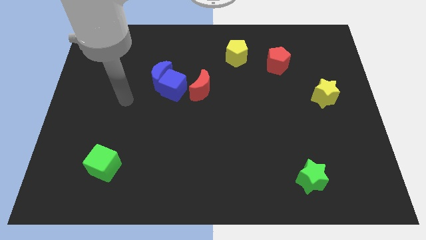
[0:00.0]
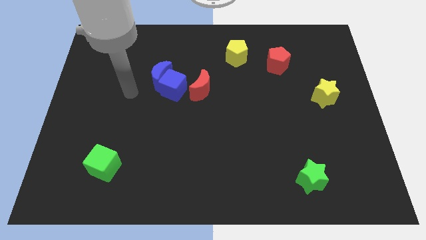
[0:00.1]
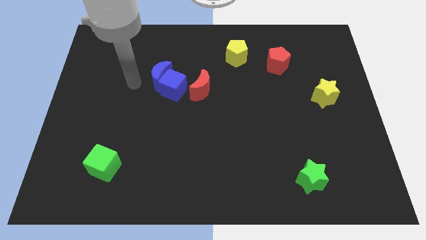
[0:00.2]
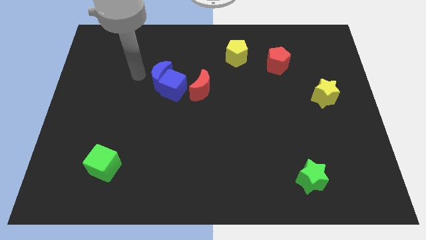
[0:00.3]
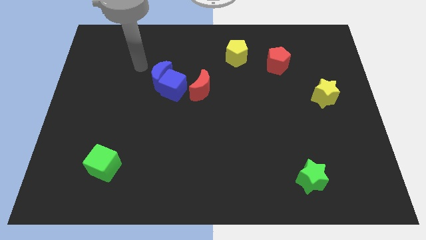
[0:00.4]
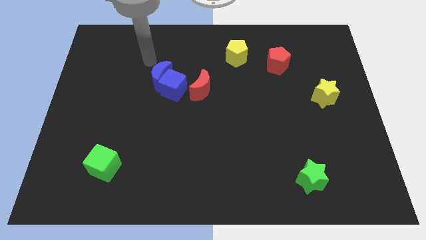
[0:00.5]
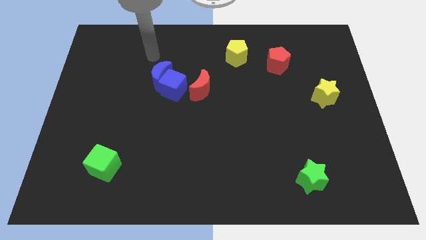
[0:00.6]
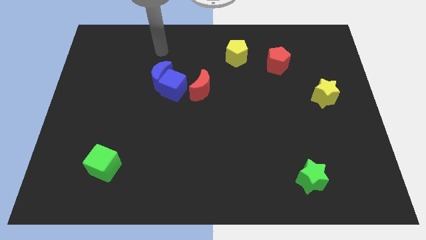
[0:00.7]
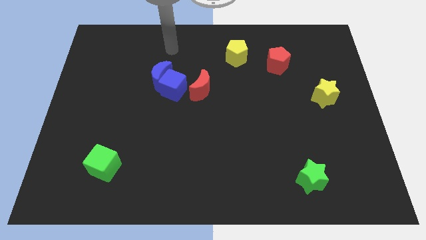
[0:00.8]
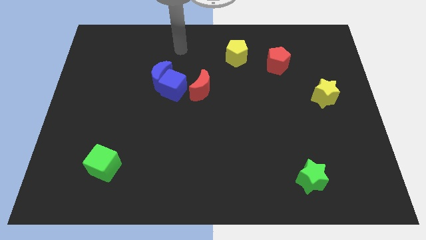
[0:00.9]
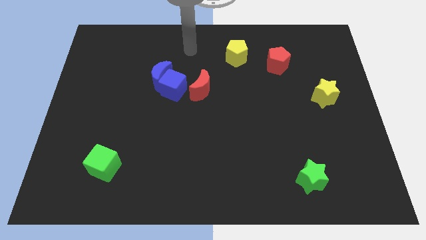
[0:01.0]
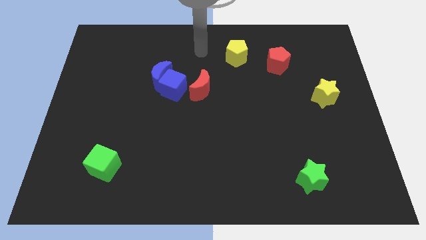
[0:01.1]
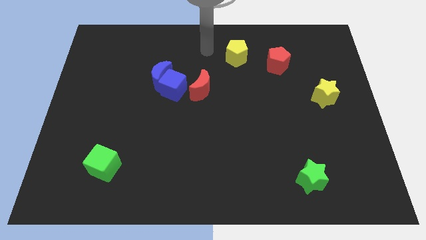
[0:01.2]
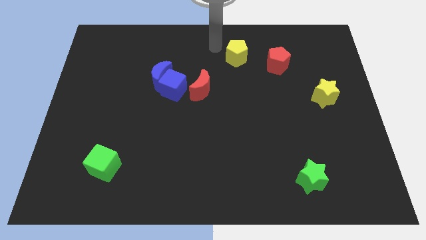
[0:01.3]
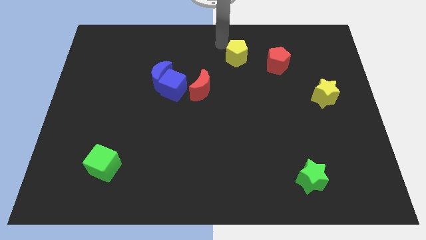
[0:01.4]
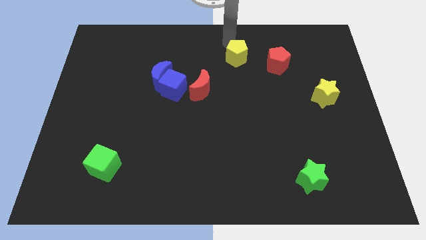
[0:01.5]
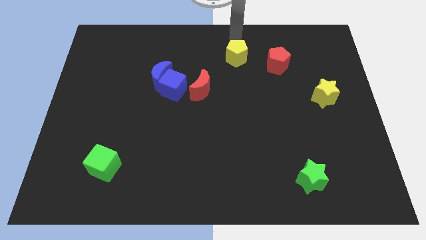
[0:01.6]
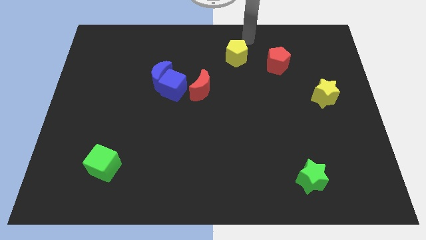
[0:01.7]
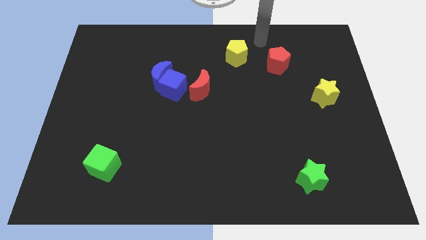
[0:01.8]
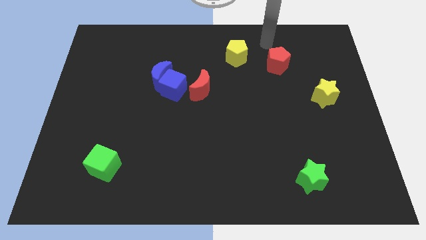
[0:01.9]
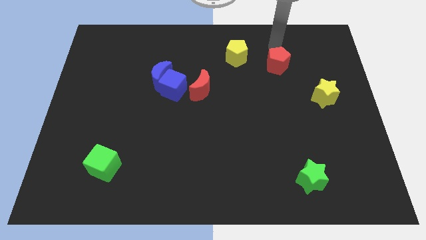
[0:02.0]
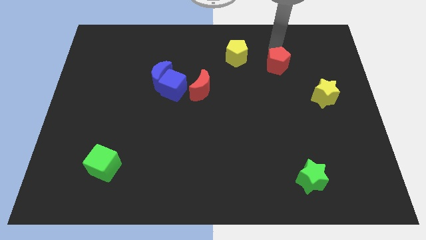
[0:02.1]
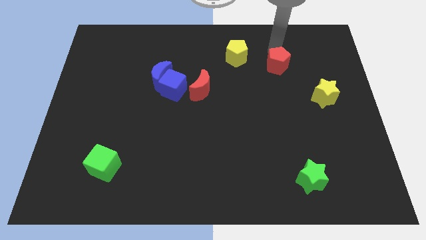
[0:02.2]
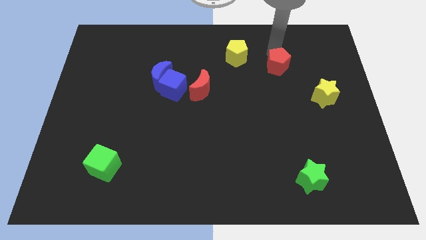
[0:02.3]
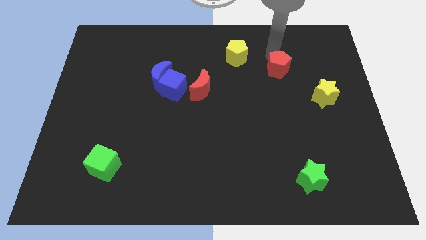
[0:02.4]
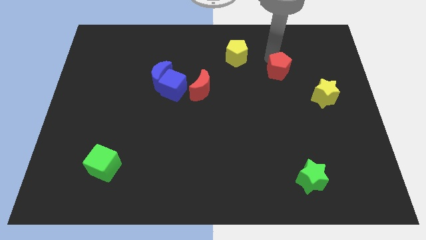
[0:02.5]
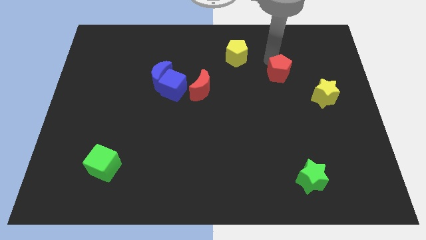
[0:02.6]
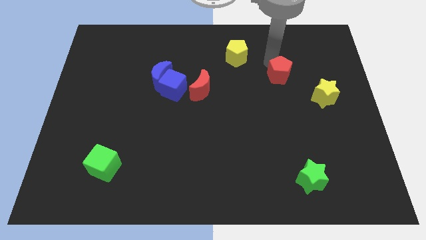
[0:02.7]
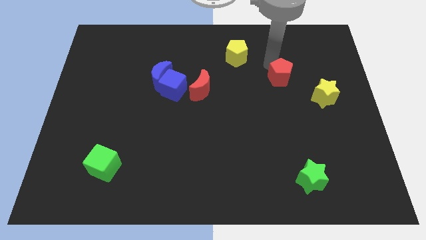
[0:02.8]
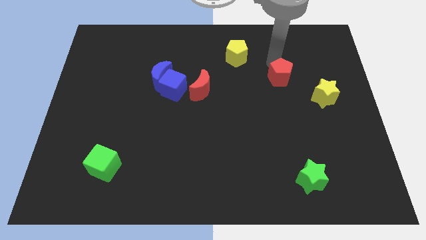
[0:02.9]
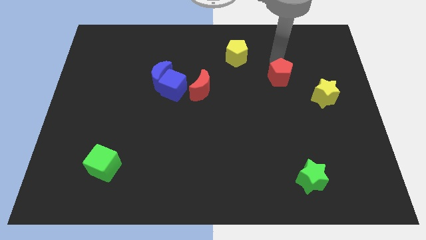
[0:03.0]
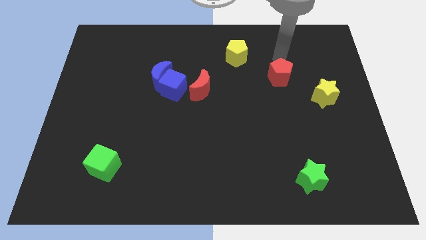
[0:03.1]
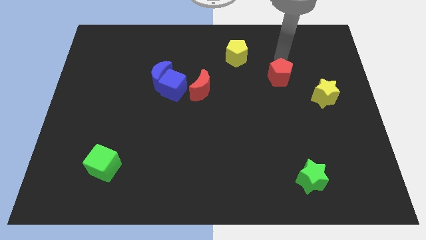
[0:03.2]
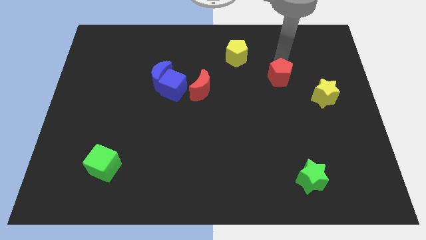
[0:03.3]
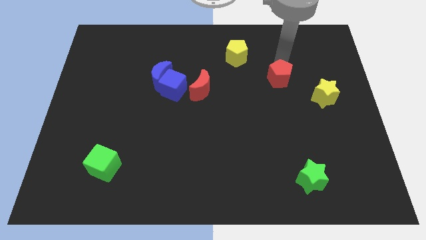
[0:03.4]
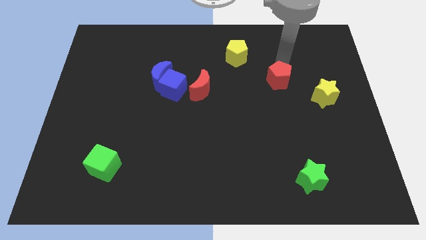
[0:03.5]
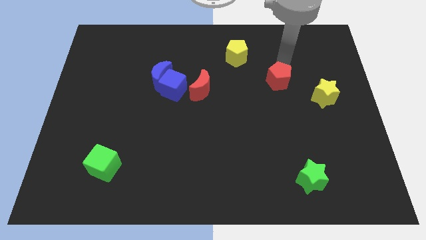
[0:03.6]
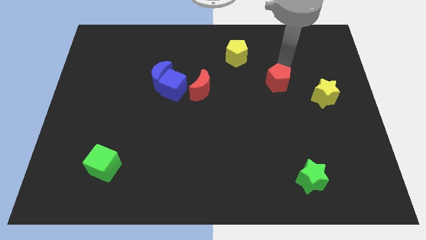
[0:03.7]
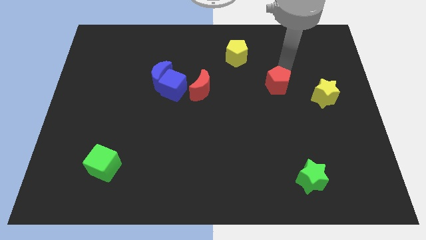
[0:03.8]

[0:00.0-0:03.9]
push the red pentagon somewhat downwards

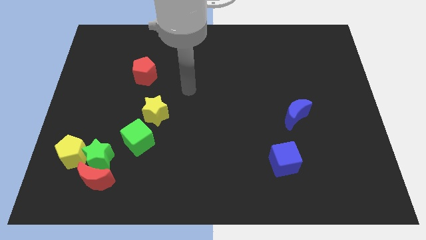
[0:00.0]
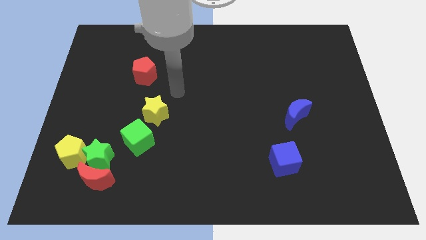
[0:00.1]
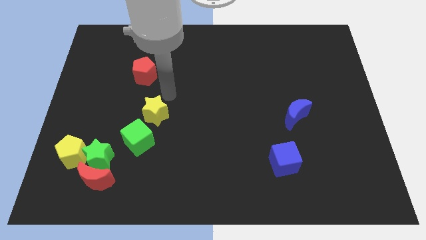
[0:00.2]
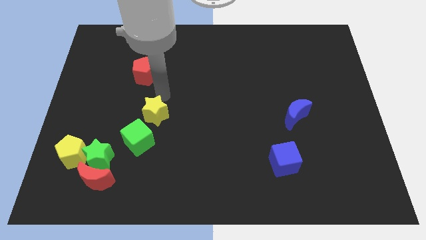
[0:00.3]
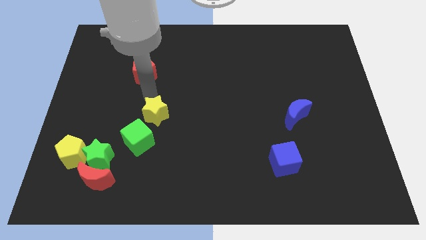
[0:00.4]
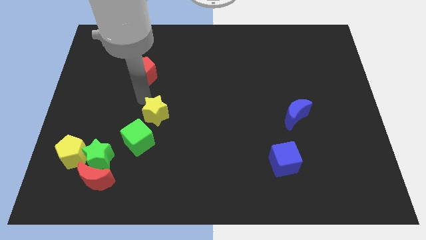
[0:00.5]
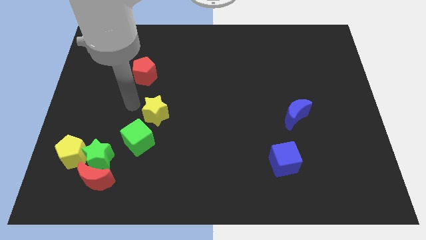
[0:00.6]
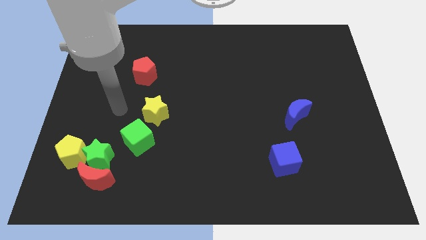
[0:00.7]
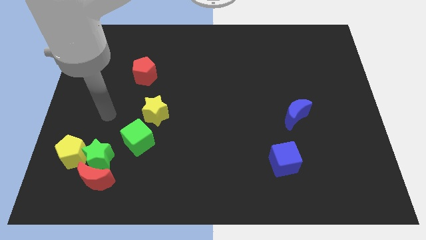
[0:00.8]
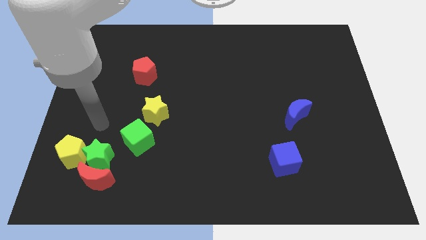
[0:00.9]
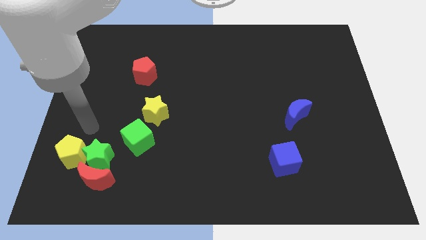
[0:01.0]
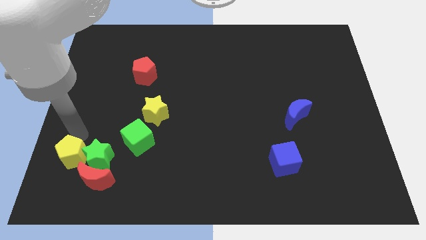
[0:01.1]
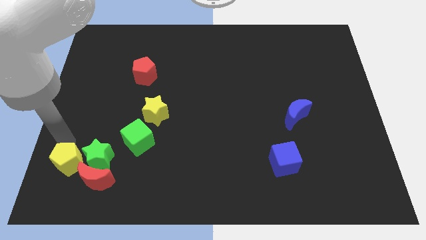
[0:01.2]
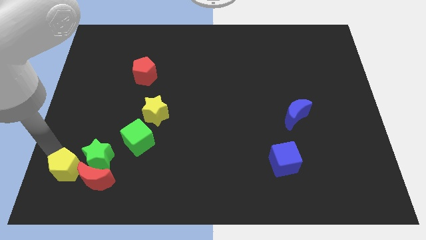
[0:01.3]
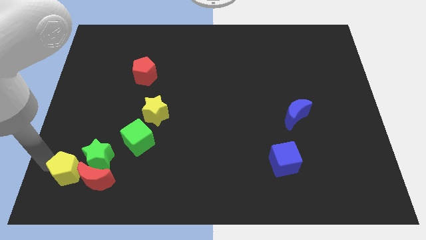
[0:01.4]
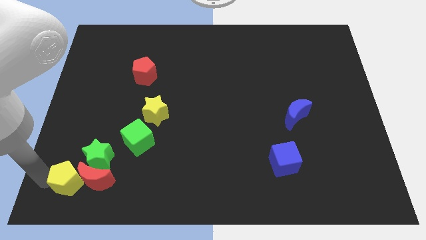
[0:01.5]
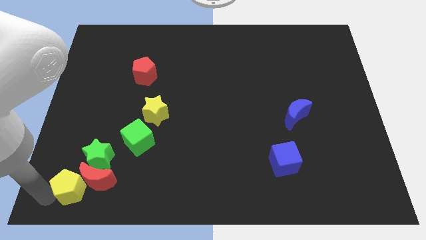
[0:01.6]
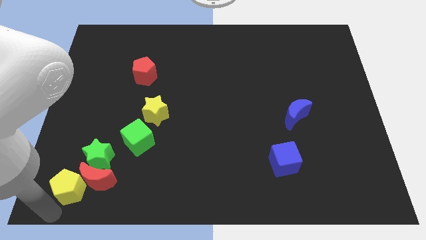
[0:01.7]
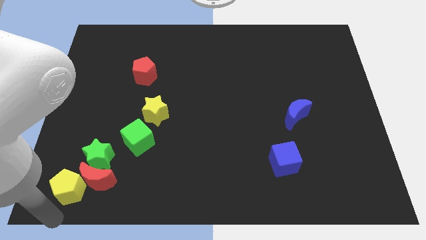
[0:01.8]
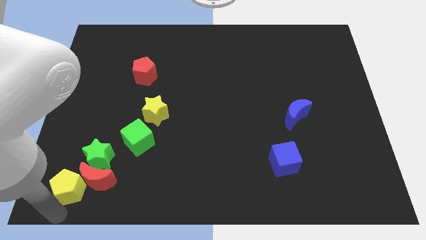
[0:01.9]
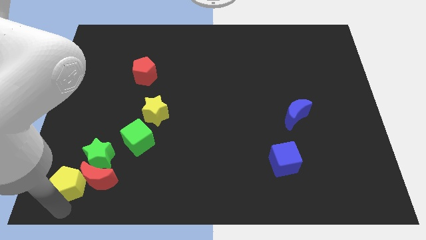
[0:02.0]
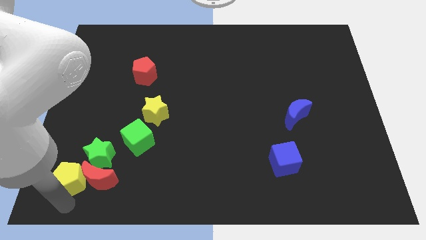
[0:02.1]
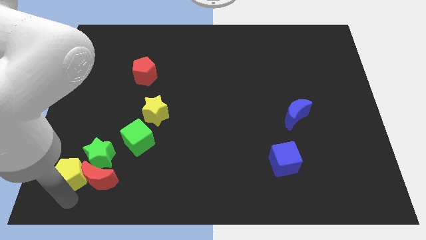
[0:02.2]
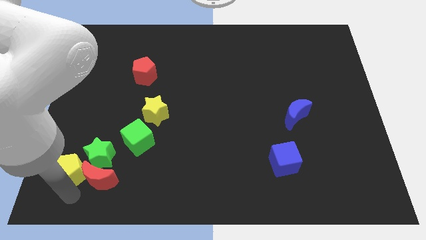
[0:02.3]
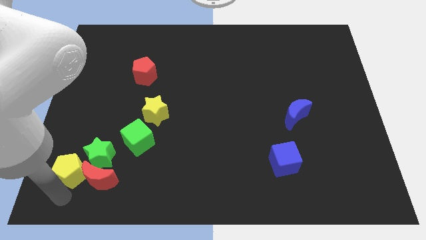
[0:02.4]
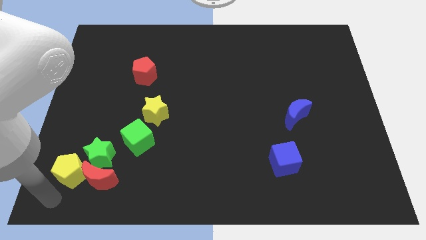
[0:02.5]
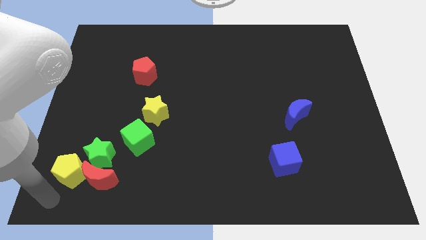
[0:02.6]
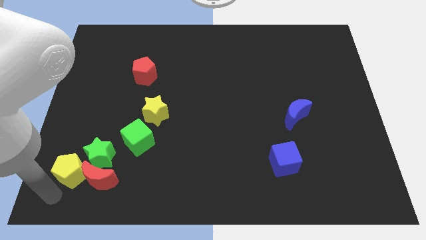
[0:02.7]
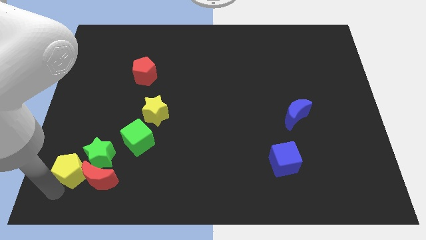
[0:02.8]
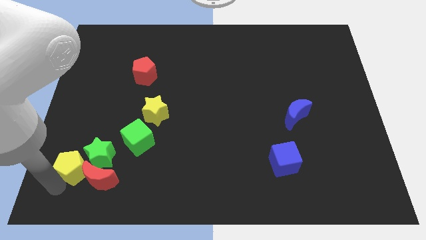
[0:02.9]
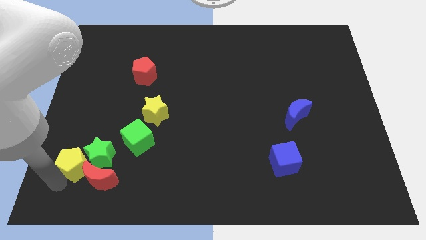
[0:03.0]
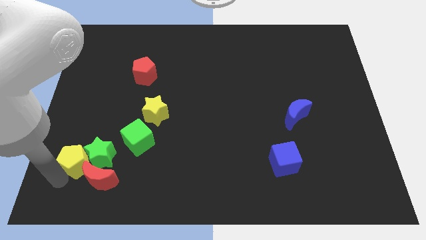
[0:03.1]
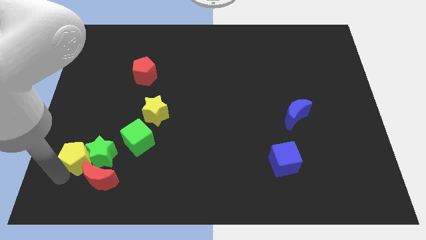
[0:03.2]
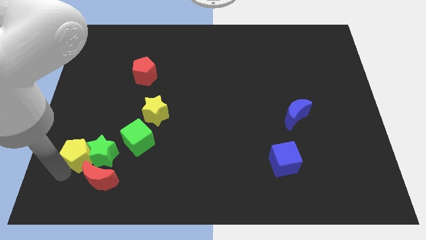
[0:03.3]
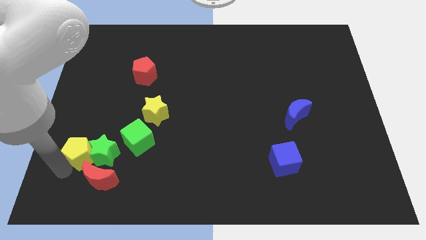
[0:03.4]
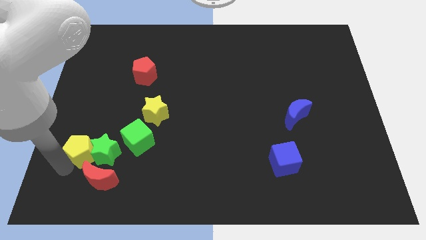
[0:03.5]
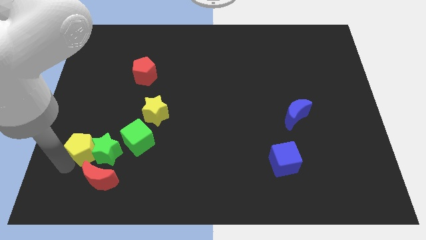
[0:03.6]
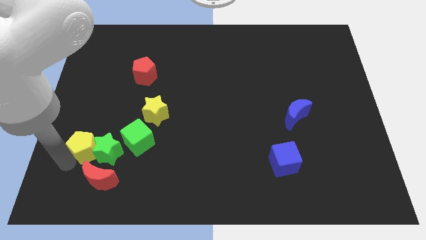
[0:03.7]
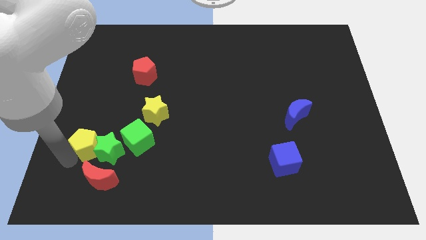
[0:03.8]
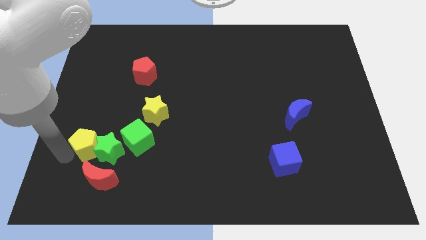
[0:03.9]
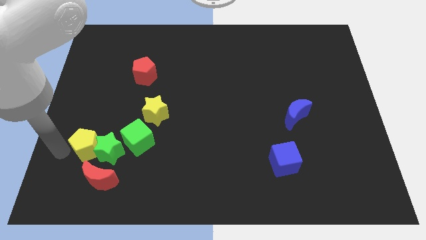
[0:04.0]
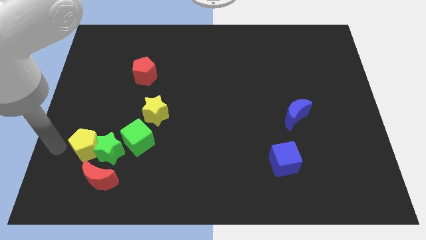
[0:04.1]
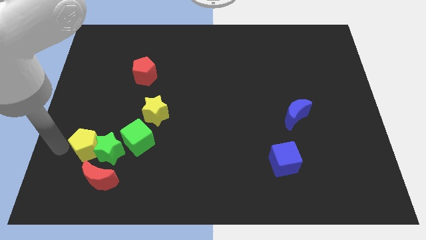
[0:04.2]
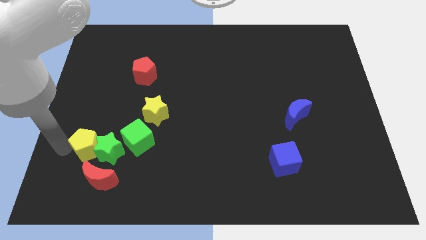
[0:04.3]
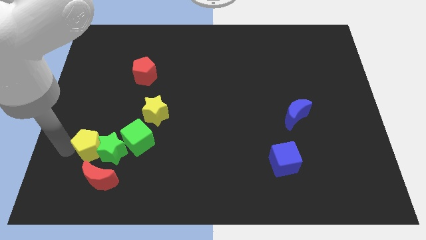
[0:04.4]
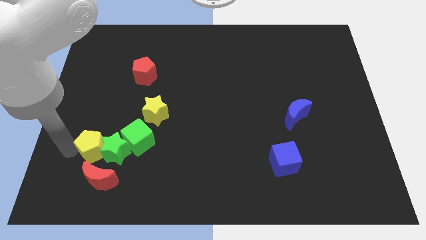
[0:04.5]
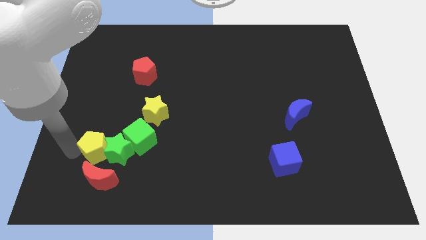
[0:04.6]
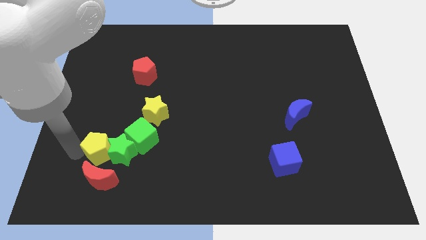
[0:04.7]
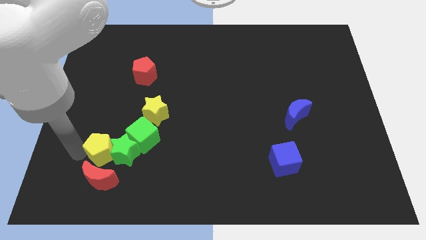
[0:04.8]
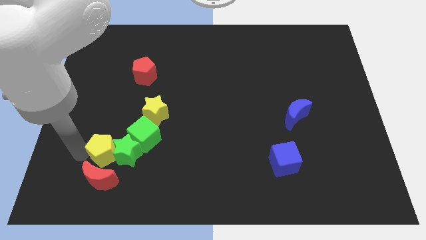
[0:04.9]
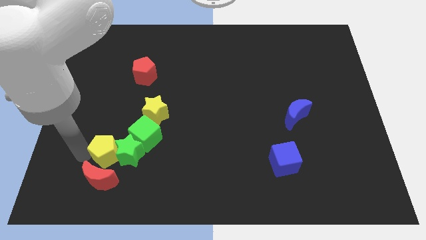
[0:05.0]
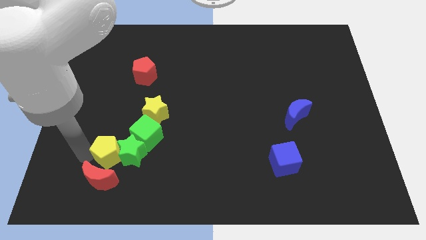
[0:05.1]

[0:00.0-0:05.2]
slide the yellow pentagon to the right a little
